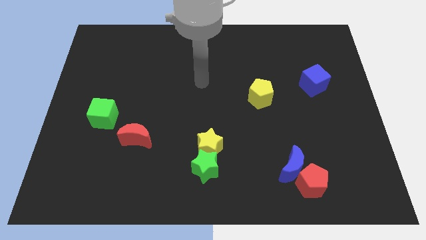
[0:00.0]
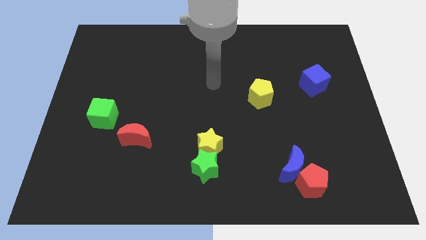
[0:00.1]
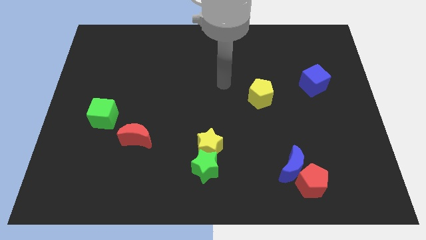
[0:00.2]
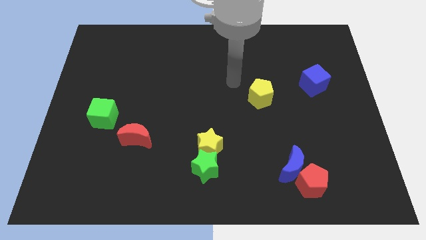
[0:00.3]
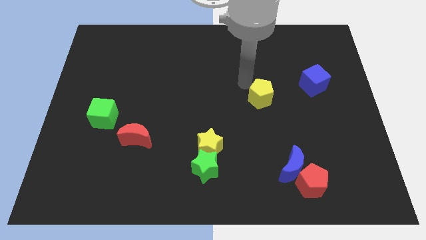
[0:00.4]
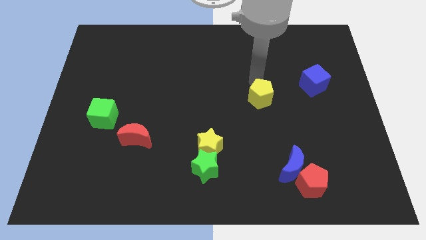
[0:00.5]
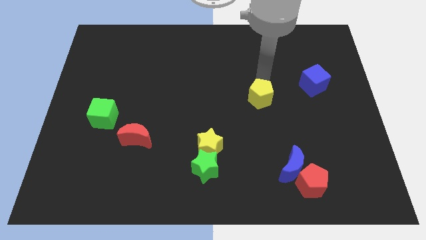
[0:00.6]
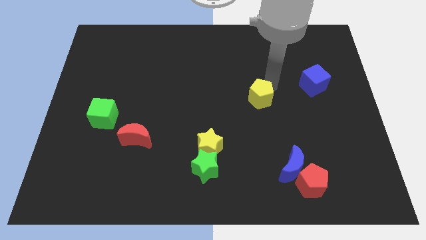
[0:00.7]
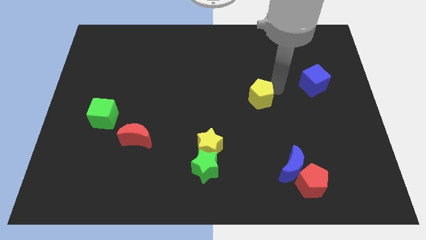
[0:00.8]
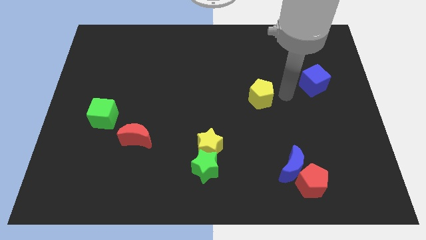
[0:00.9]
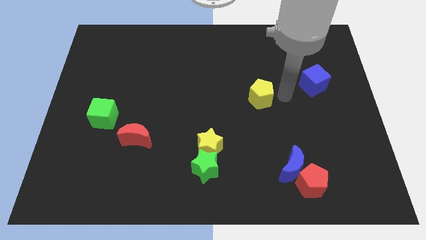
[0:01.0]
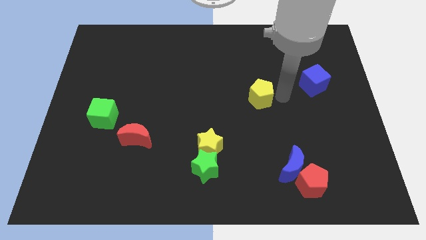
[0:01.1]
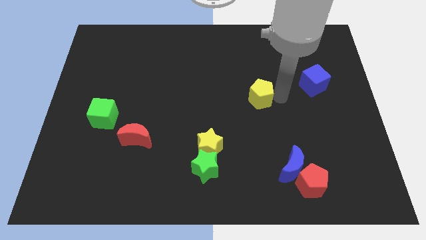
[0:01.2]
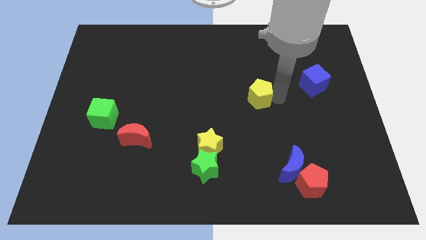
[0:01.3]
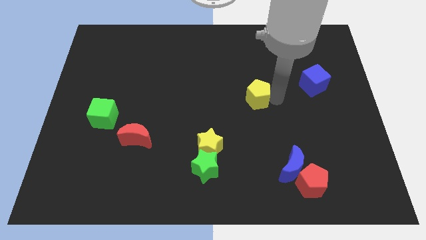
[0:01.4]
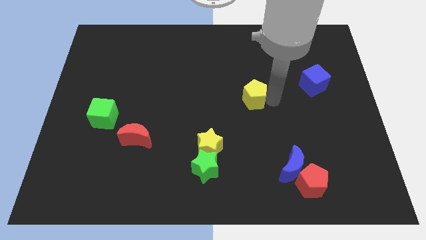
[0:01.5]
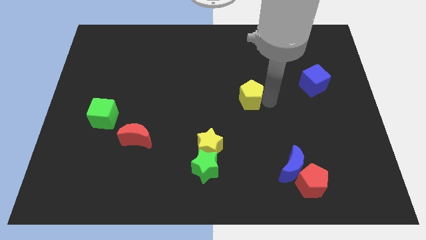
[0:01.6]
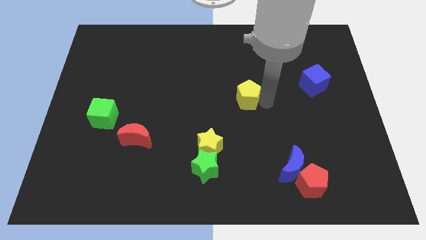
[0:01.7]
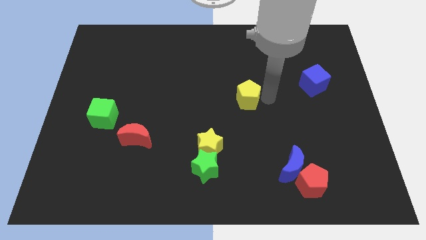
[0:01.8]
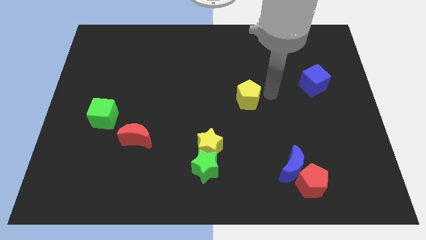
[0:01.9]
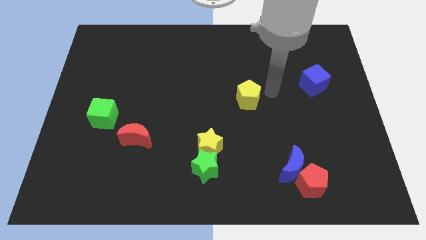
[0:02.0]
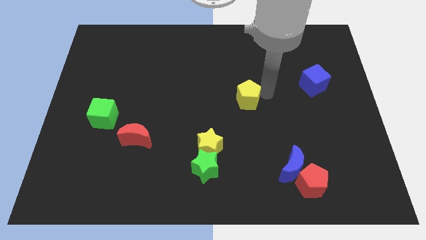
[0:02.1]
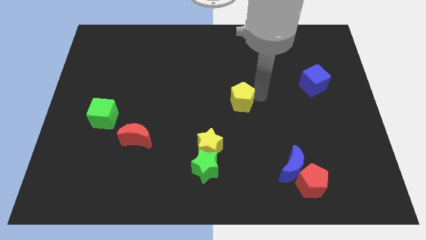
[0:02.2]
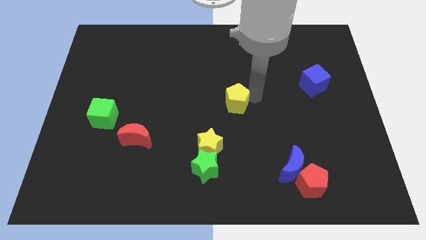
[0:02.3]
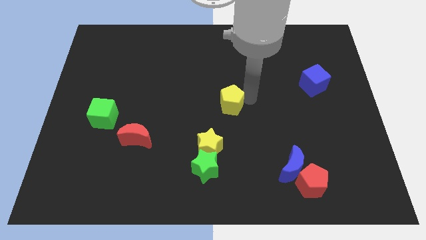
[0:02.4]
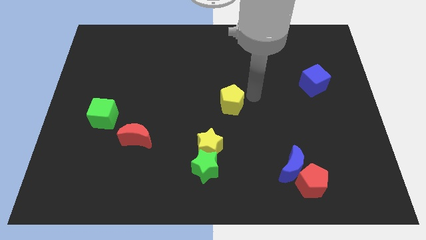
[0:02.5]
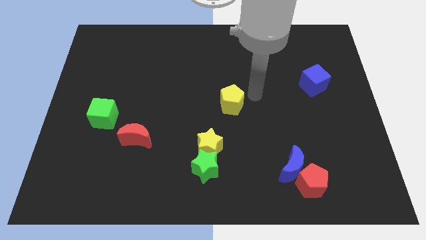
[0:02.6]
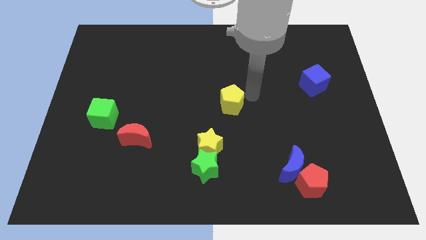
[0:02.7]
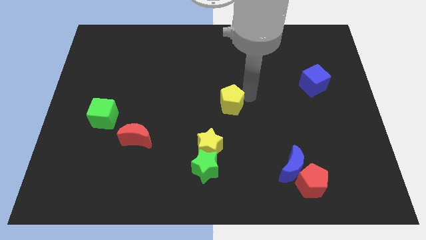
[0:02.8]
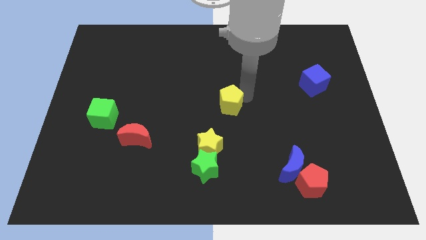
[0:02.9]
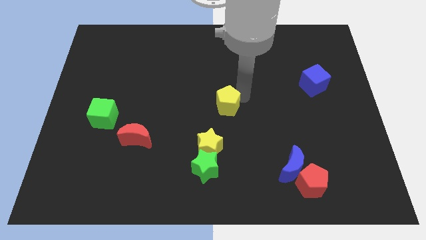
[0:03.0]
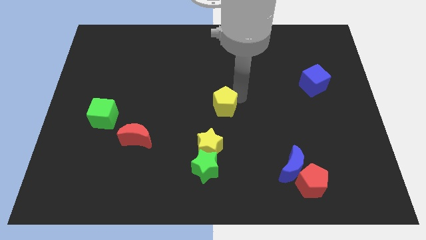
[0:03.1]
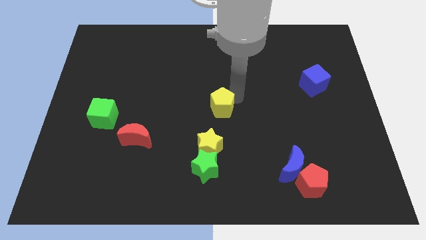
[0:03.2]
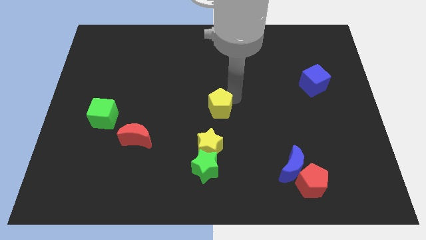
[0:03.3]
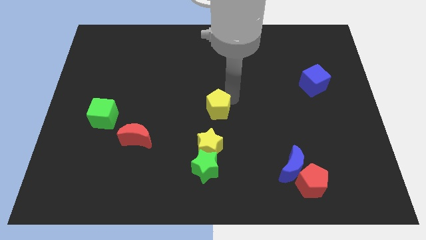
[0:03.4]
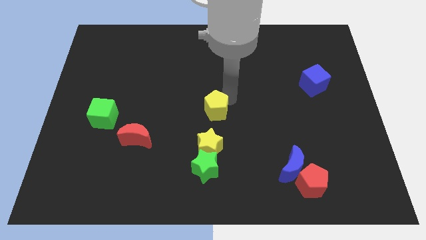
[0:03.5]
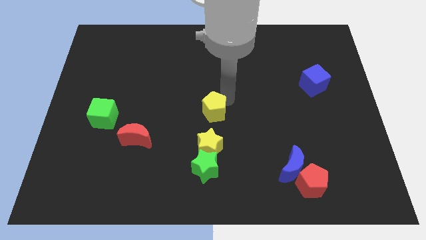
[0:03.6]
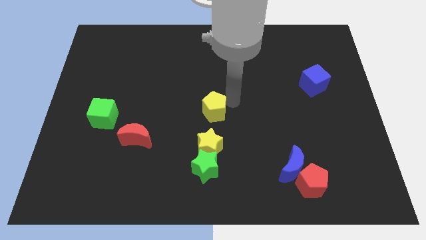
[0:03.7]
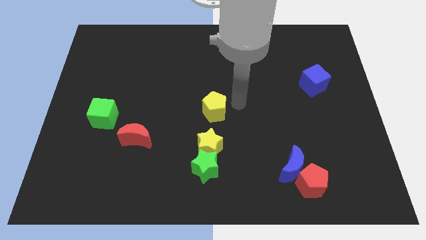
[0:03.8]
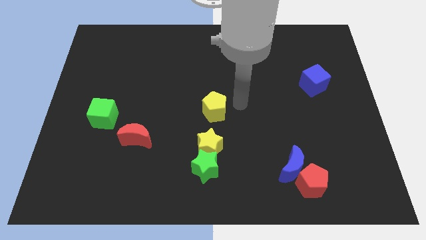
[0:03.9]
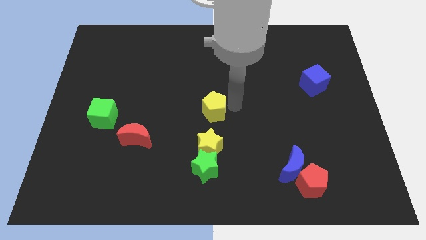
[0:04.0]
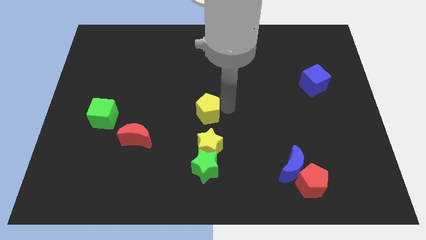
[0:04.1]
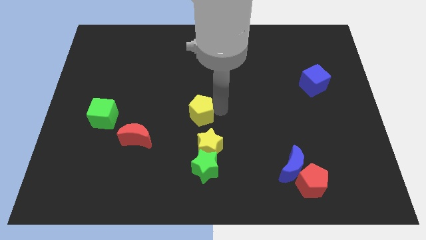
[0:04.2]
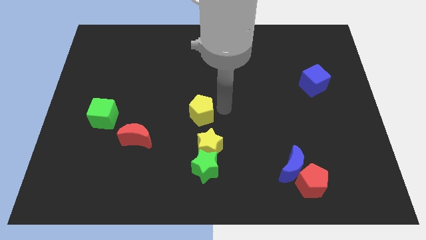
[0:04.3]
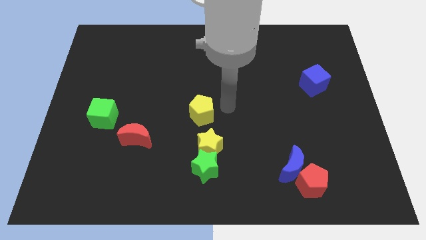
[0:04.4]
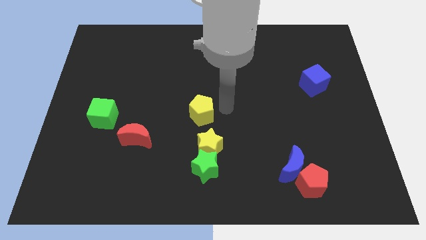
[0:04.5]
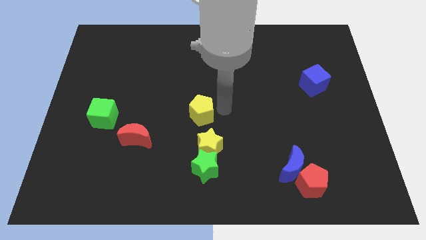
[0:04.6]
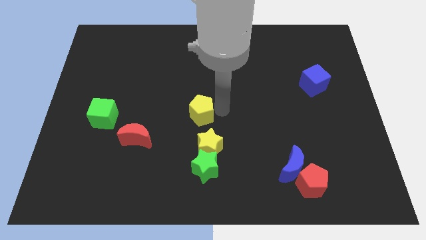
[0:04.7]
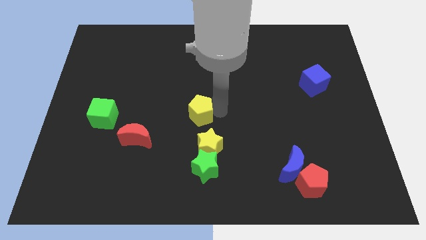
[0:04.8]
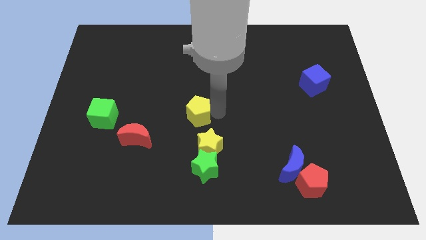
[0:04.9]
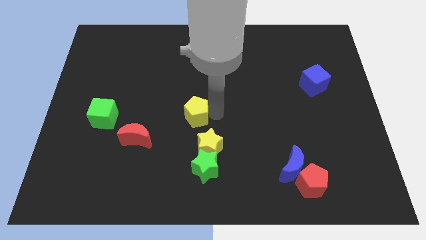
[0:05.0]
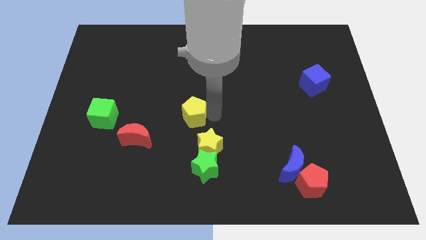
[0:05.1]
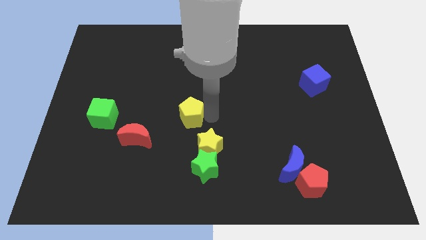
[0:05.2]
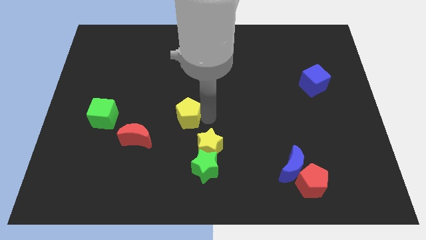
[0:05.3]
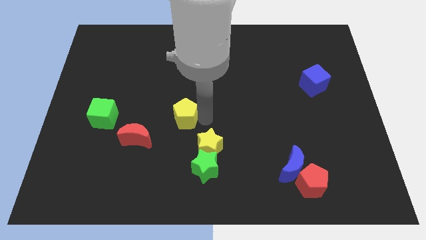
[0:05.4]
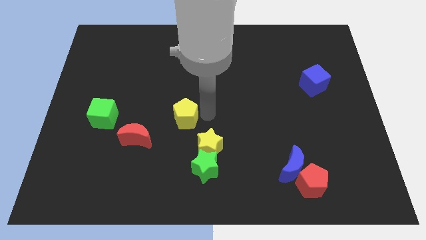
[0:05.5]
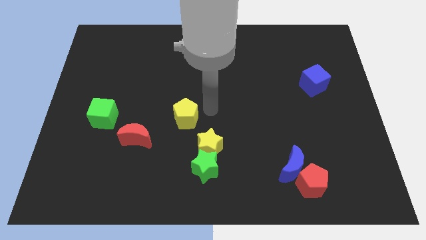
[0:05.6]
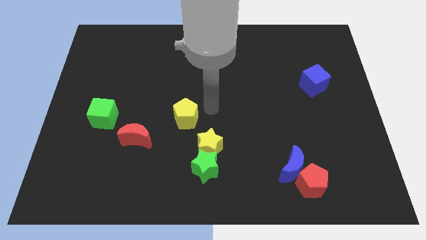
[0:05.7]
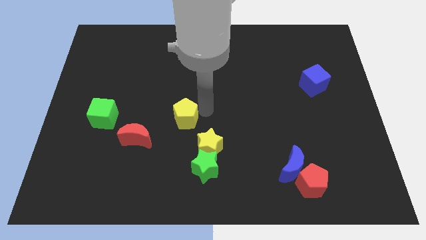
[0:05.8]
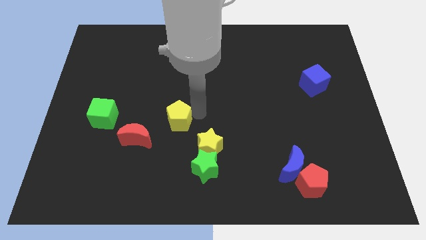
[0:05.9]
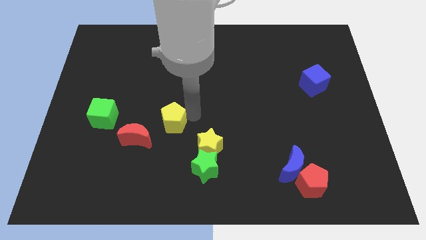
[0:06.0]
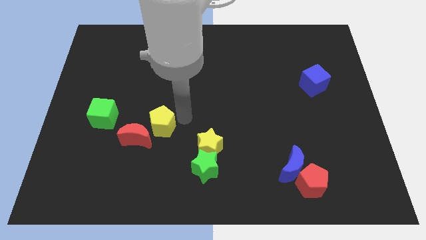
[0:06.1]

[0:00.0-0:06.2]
slide the yellow pentagon to the red moon

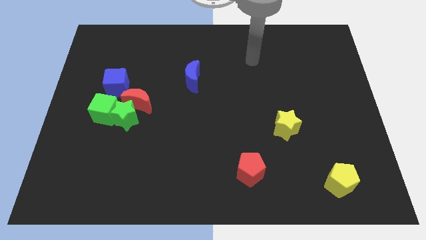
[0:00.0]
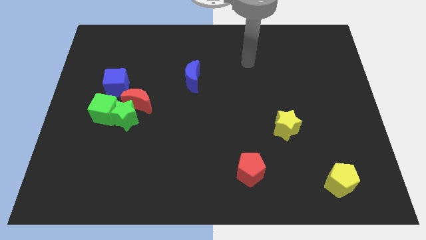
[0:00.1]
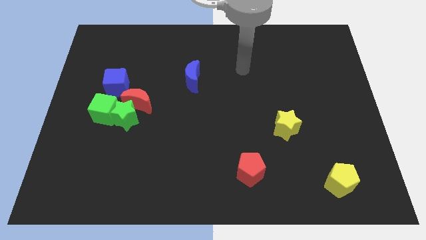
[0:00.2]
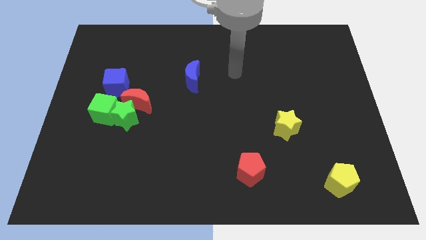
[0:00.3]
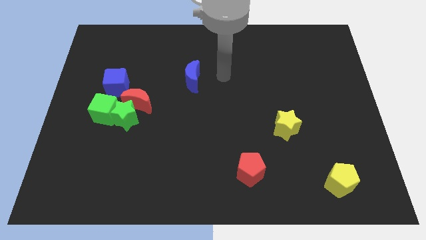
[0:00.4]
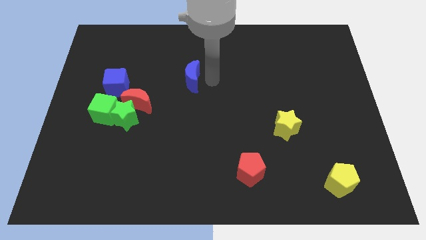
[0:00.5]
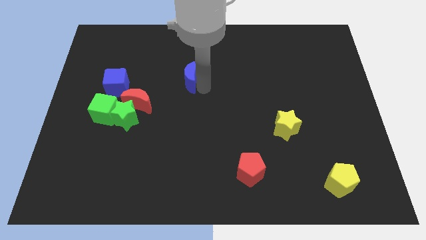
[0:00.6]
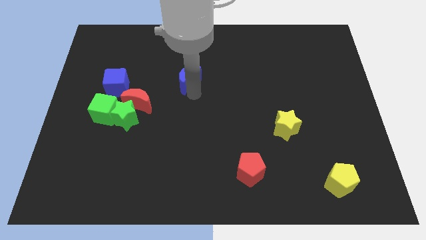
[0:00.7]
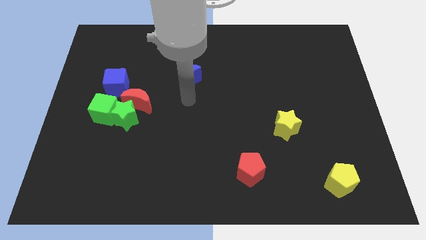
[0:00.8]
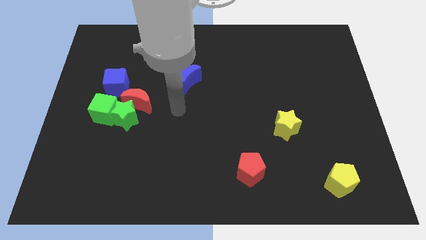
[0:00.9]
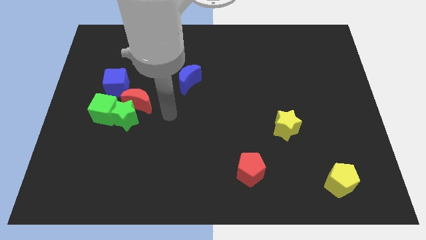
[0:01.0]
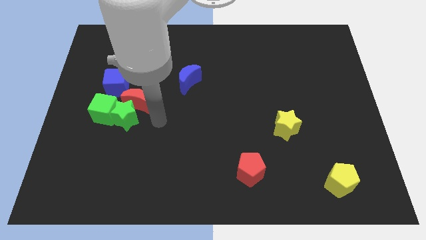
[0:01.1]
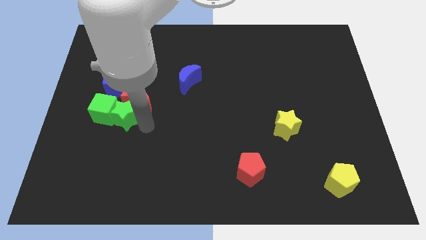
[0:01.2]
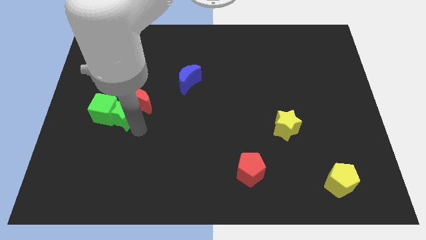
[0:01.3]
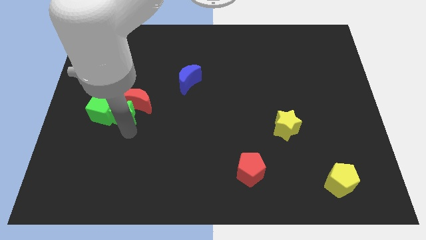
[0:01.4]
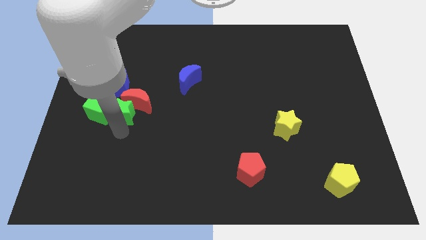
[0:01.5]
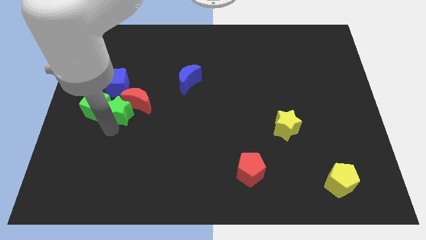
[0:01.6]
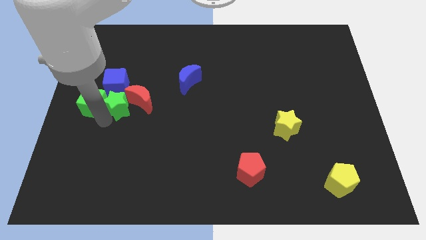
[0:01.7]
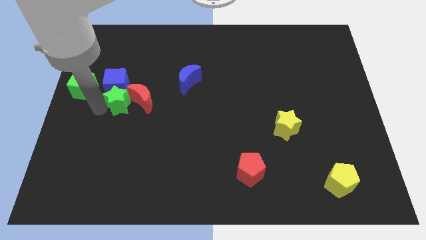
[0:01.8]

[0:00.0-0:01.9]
move the green star towards the blue cube
